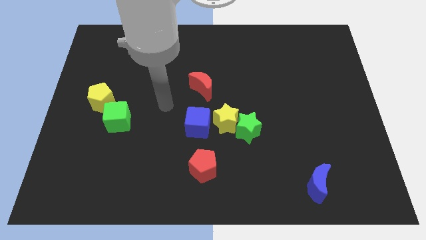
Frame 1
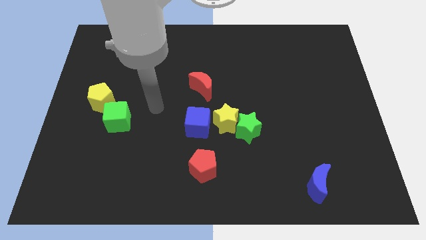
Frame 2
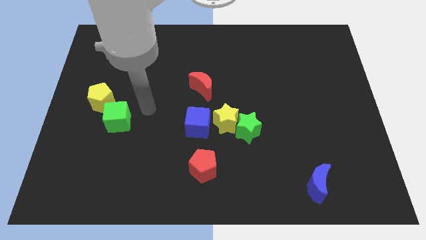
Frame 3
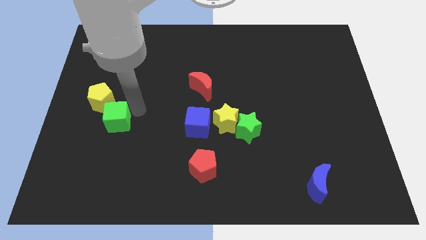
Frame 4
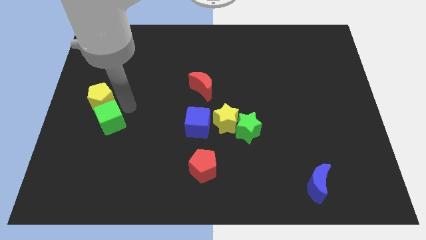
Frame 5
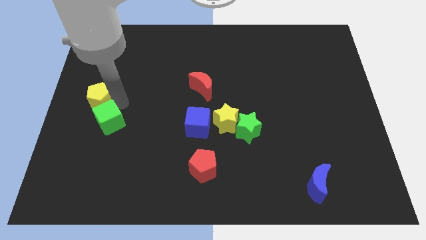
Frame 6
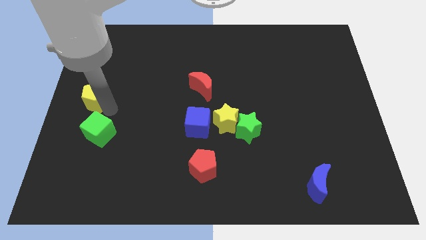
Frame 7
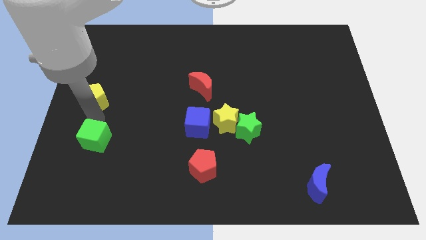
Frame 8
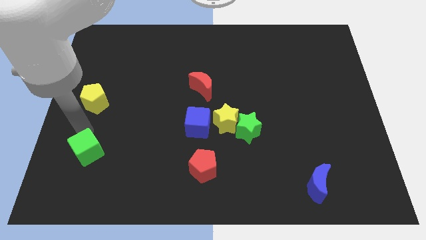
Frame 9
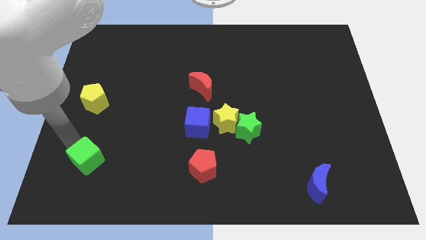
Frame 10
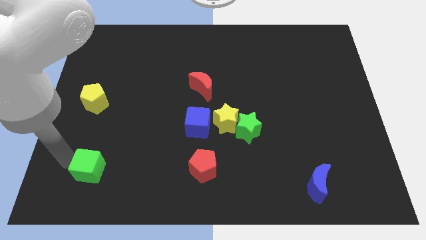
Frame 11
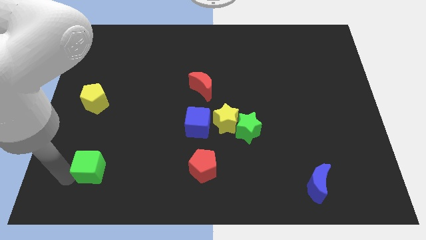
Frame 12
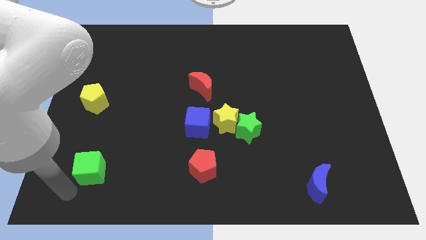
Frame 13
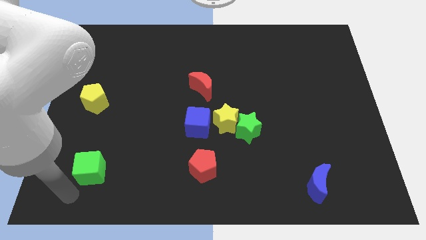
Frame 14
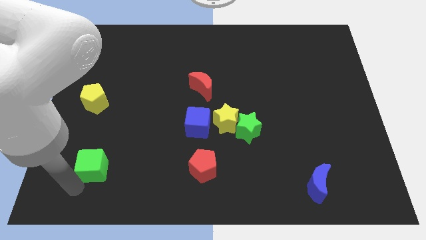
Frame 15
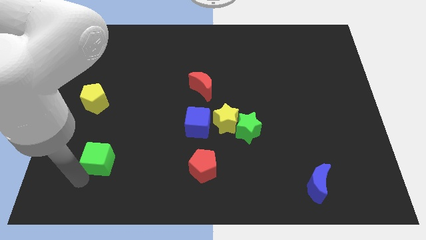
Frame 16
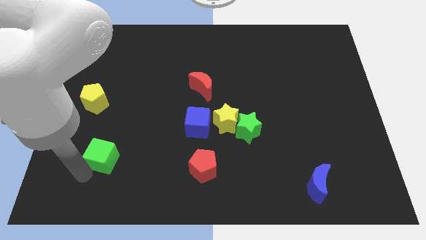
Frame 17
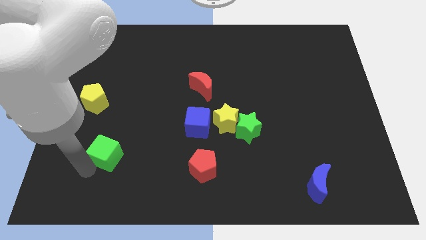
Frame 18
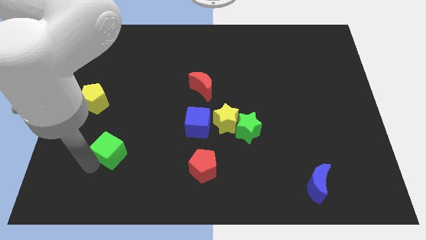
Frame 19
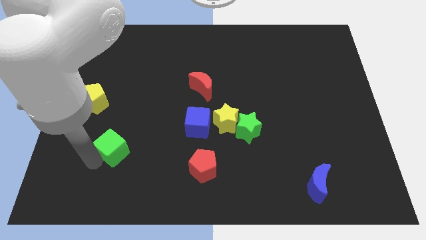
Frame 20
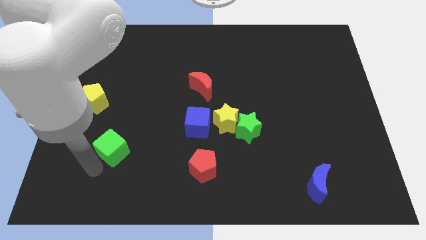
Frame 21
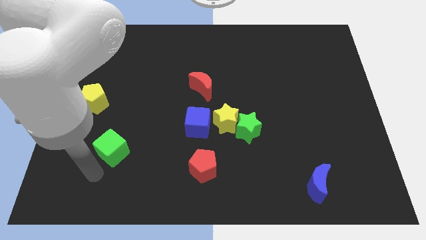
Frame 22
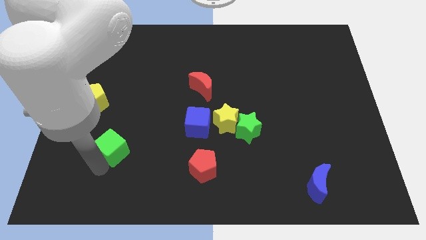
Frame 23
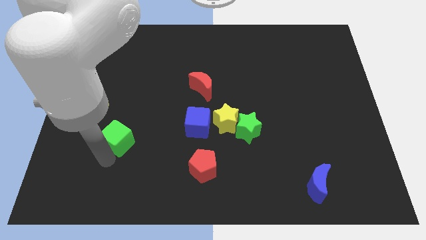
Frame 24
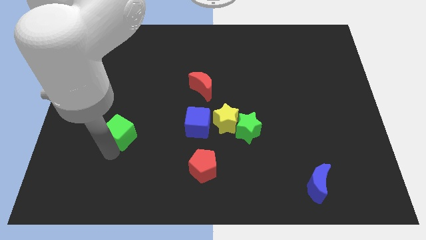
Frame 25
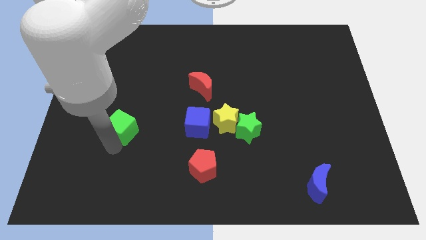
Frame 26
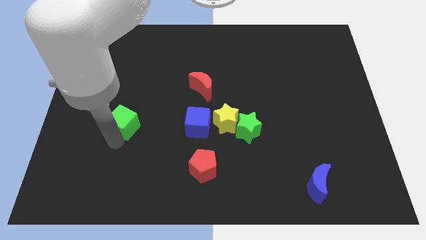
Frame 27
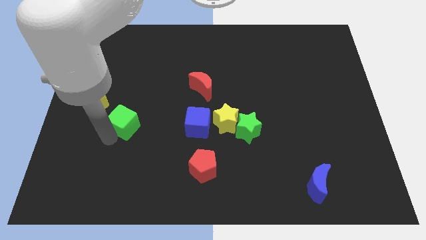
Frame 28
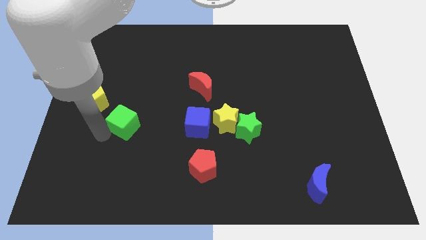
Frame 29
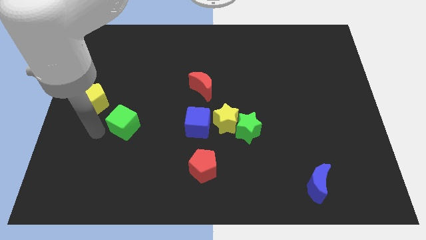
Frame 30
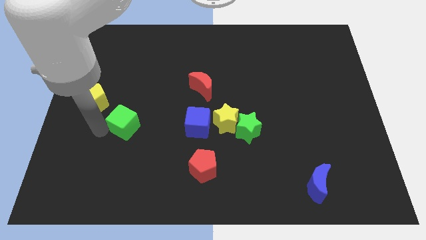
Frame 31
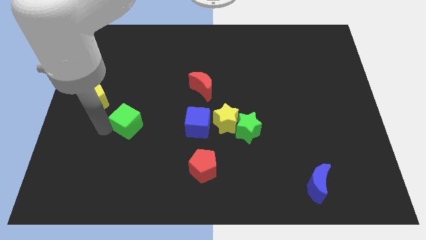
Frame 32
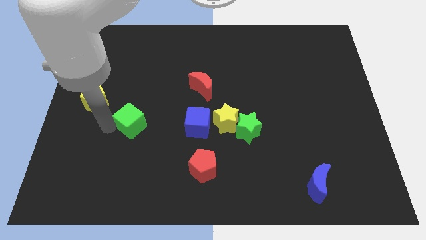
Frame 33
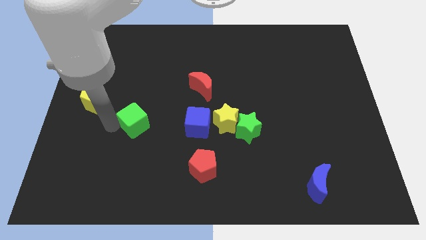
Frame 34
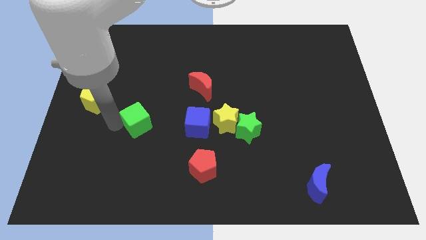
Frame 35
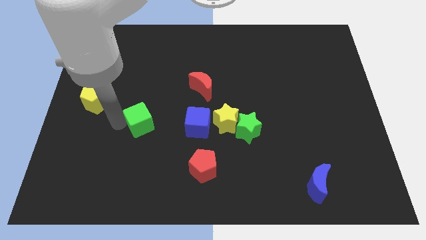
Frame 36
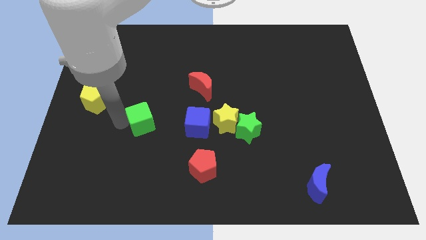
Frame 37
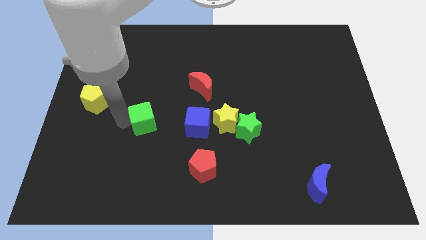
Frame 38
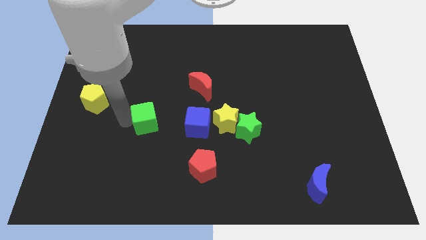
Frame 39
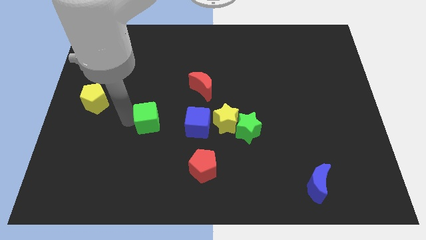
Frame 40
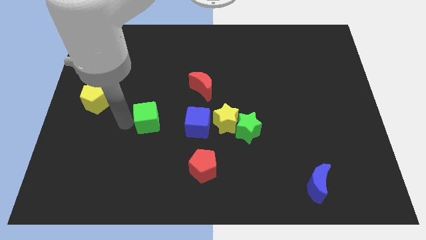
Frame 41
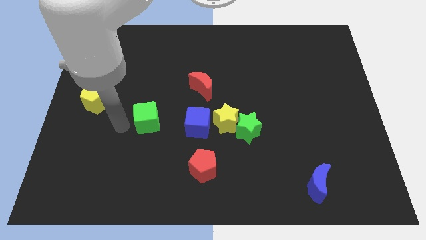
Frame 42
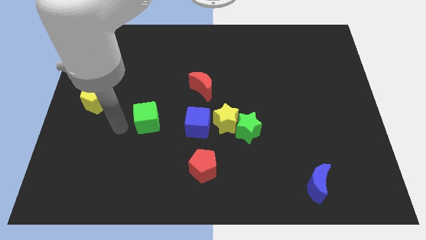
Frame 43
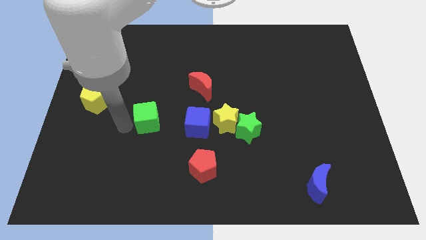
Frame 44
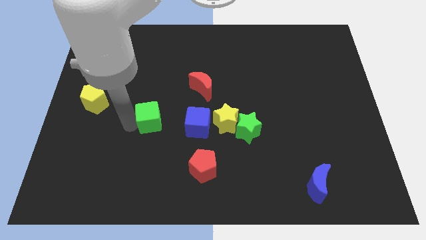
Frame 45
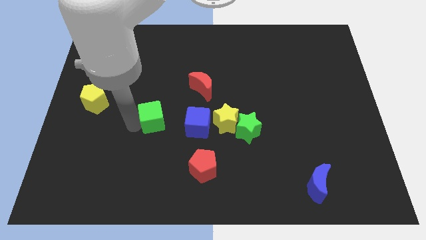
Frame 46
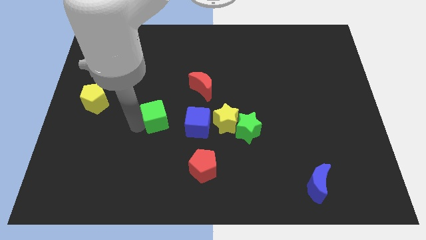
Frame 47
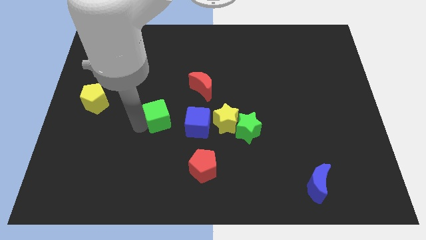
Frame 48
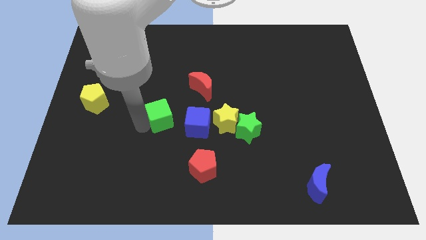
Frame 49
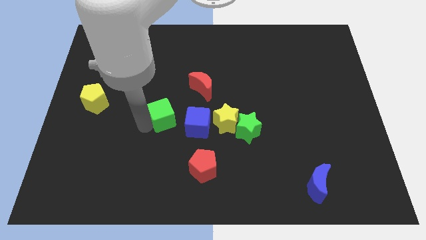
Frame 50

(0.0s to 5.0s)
move the green cube to the center

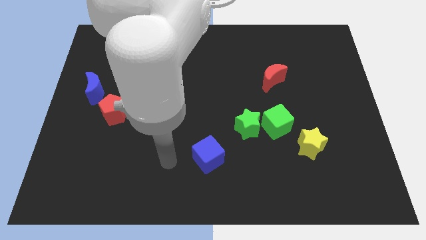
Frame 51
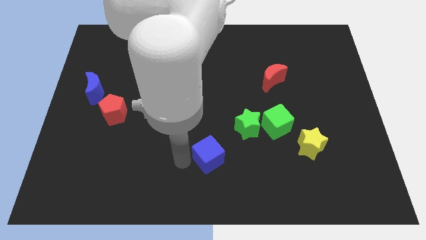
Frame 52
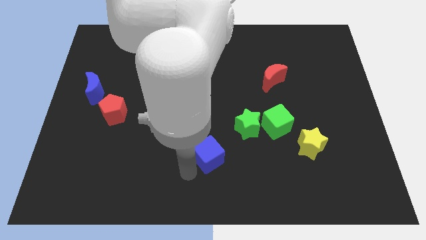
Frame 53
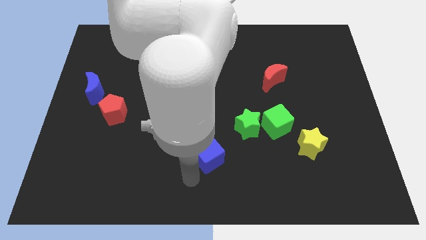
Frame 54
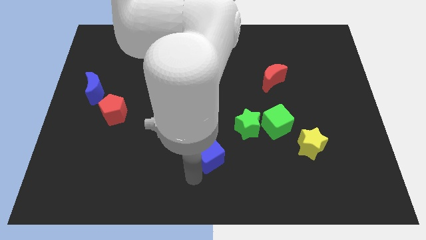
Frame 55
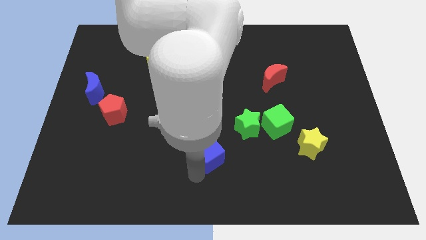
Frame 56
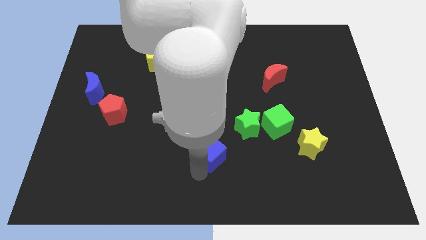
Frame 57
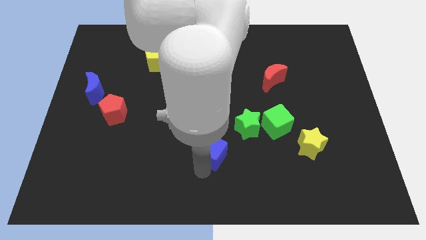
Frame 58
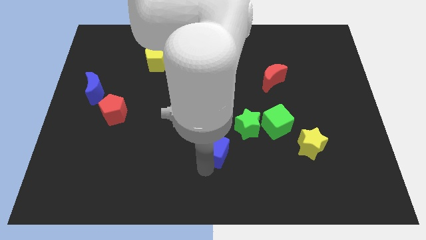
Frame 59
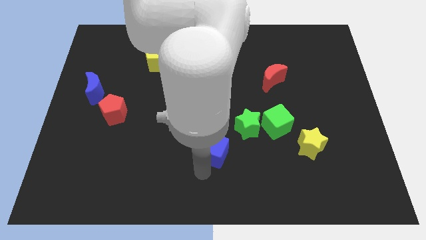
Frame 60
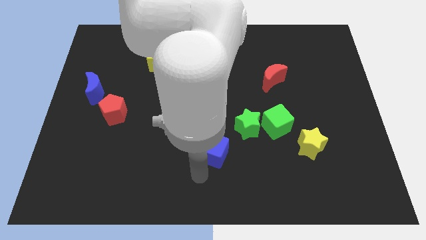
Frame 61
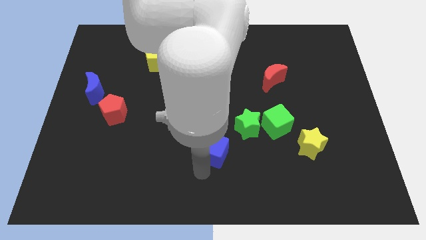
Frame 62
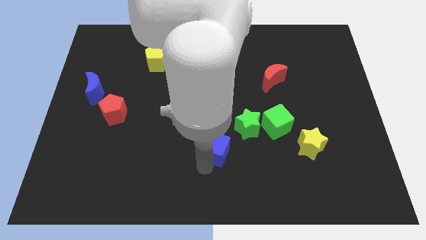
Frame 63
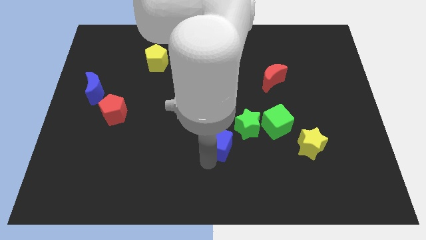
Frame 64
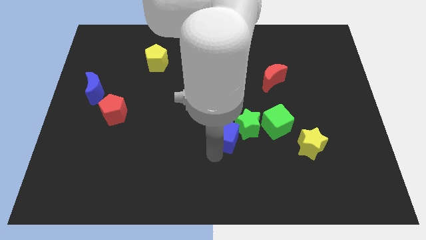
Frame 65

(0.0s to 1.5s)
put the blue cube to the middle of the board
